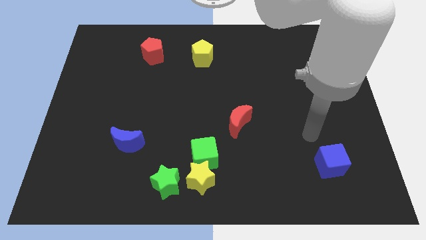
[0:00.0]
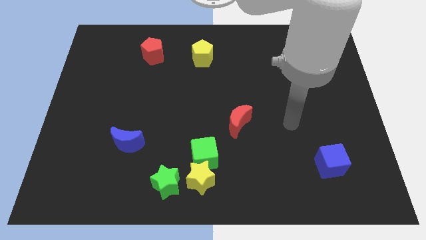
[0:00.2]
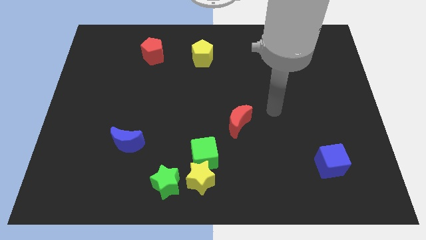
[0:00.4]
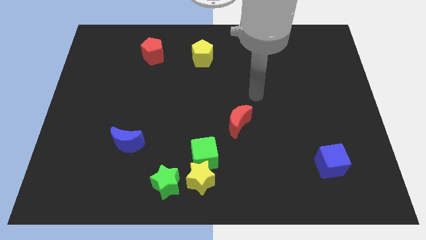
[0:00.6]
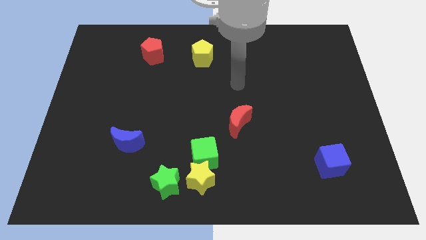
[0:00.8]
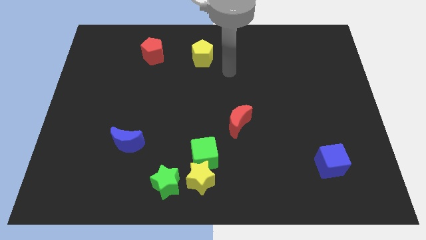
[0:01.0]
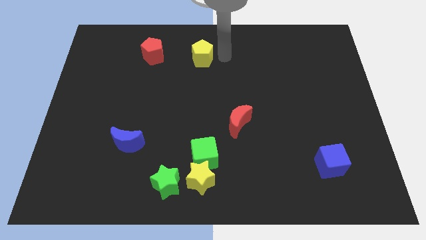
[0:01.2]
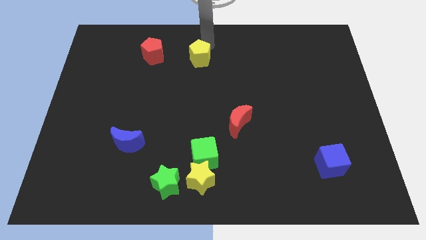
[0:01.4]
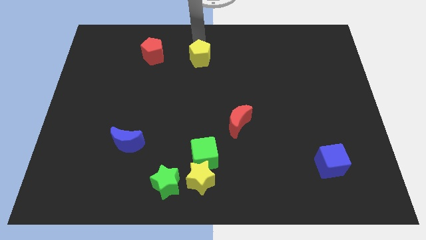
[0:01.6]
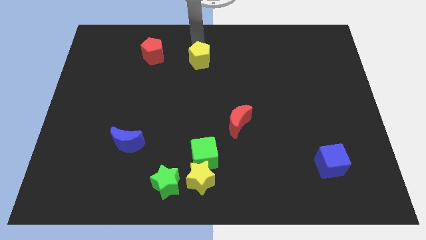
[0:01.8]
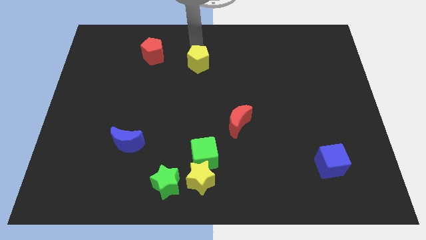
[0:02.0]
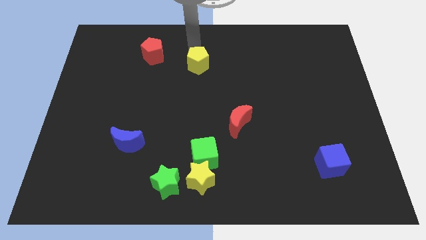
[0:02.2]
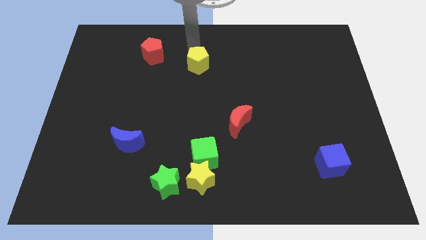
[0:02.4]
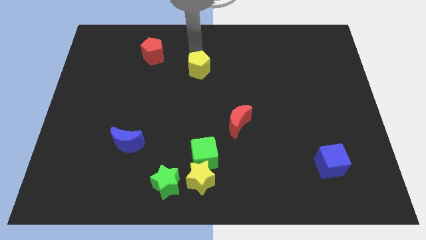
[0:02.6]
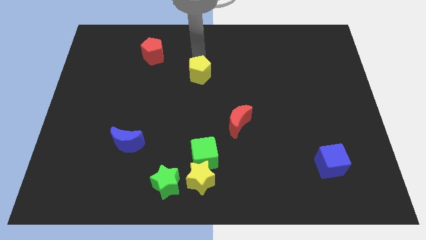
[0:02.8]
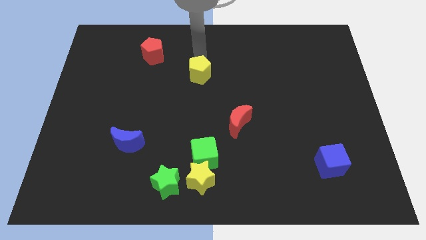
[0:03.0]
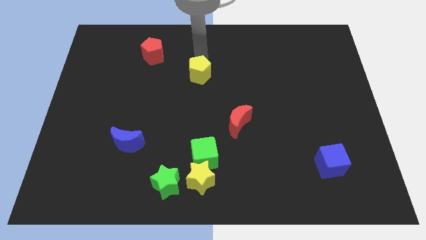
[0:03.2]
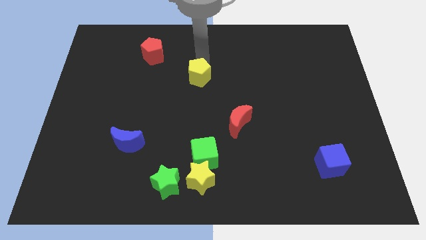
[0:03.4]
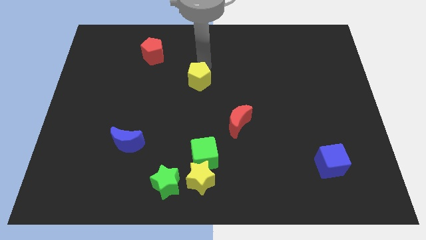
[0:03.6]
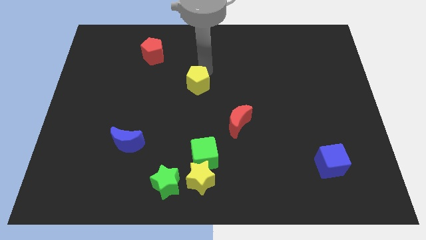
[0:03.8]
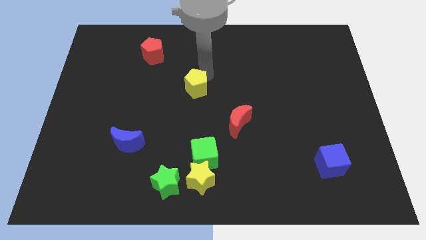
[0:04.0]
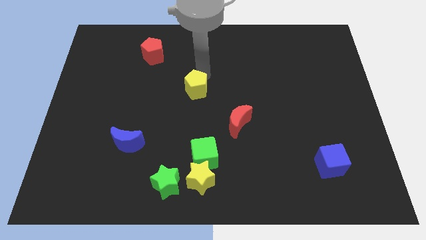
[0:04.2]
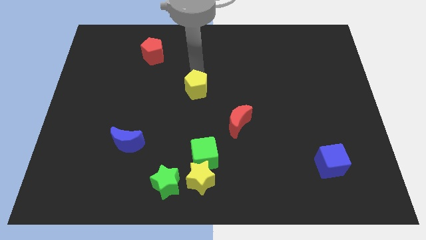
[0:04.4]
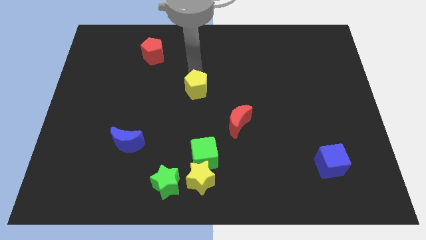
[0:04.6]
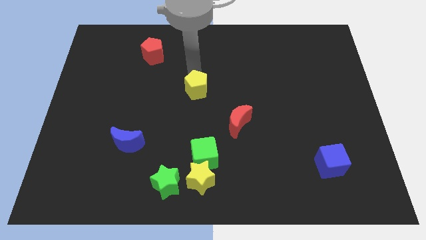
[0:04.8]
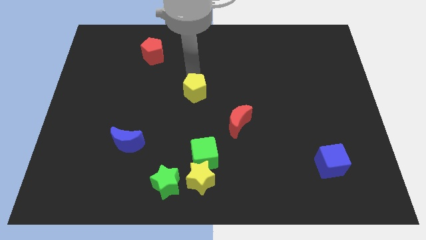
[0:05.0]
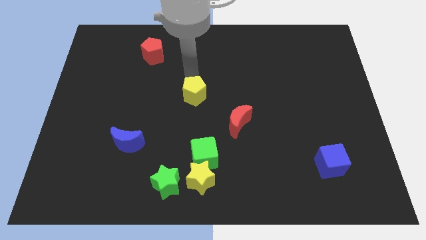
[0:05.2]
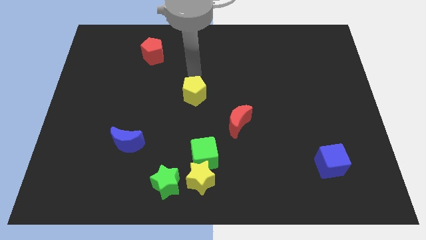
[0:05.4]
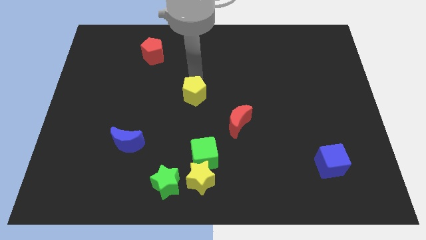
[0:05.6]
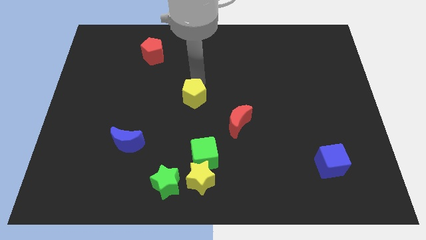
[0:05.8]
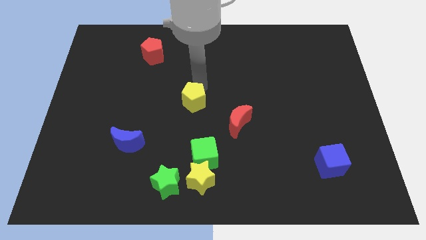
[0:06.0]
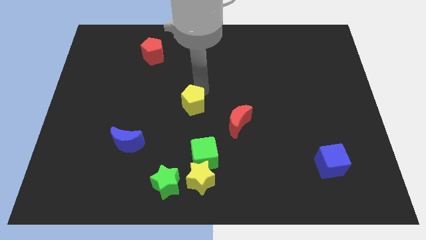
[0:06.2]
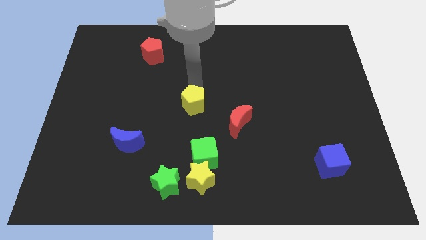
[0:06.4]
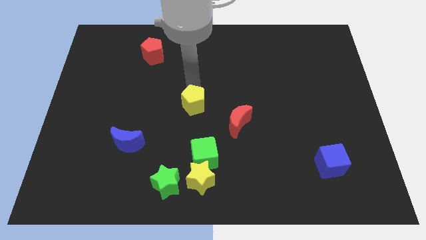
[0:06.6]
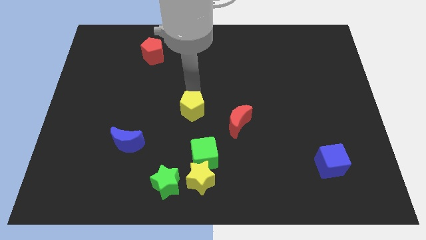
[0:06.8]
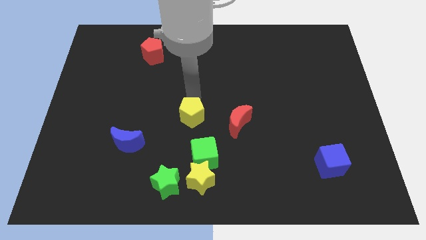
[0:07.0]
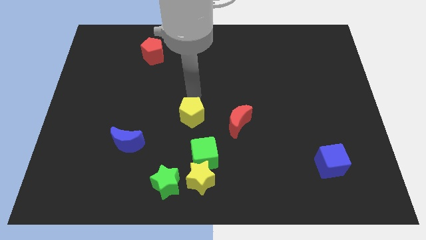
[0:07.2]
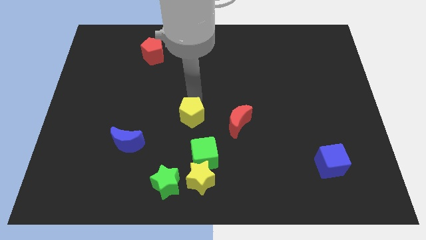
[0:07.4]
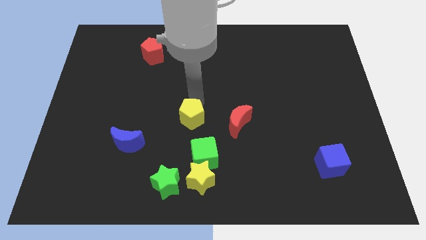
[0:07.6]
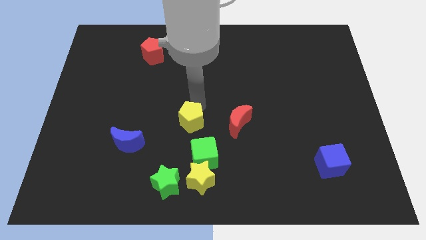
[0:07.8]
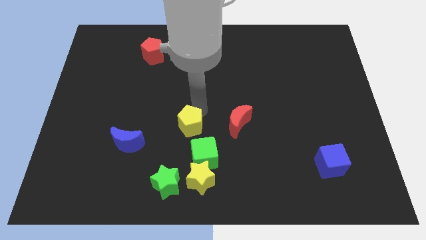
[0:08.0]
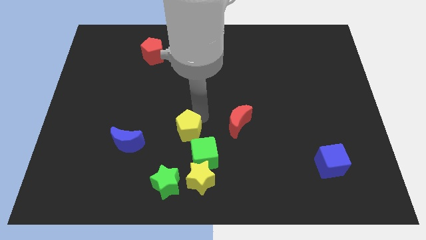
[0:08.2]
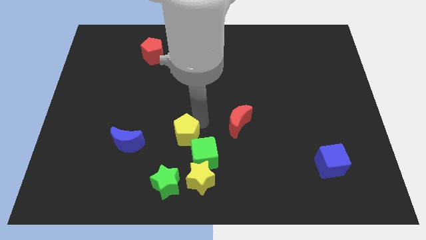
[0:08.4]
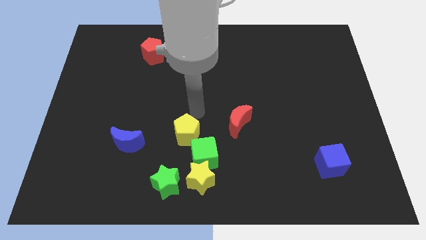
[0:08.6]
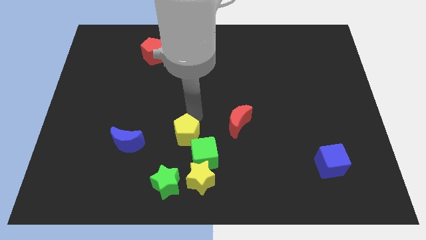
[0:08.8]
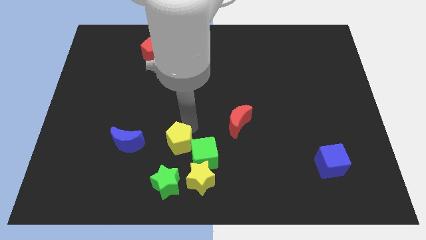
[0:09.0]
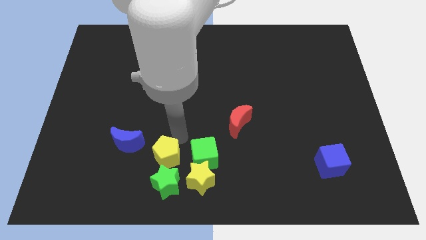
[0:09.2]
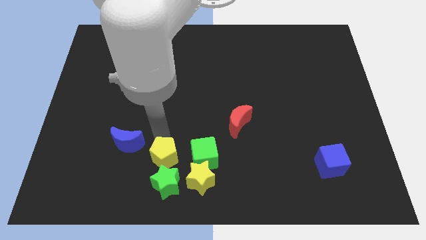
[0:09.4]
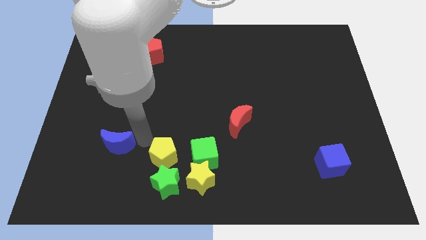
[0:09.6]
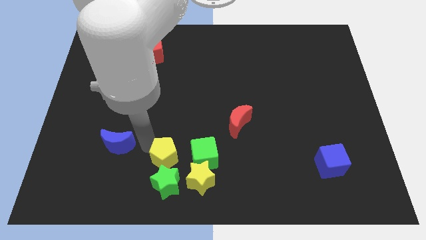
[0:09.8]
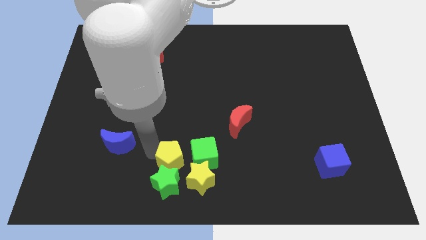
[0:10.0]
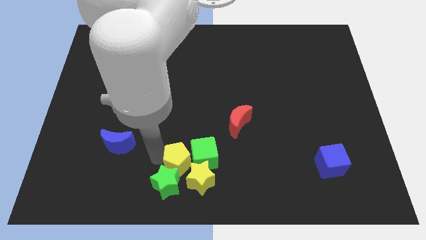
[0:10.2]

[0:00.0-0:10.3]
push the yellow pentagon towards the yellow star

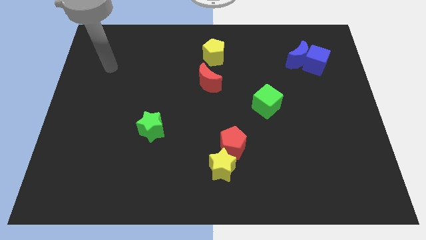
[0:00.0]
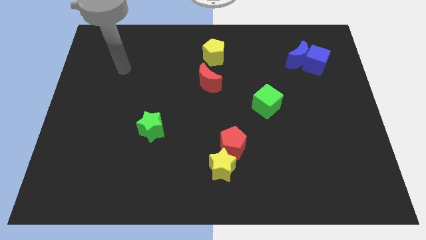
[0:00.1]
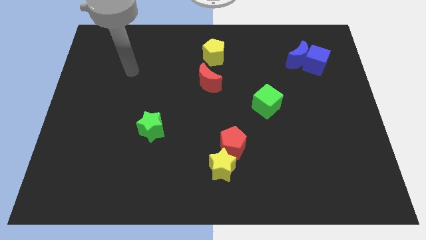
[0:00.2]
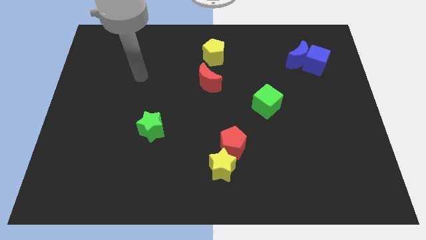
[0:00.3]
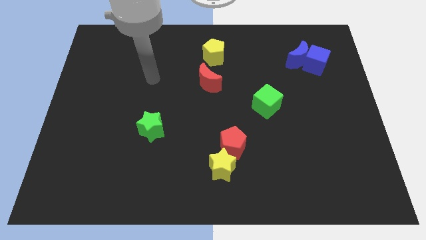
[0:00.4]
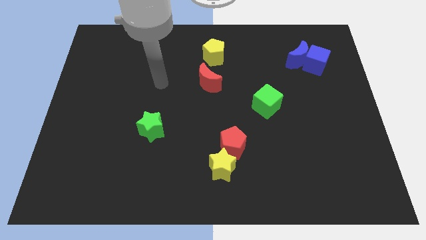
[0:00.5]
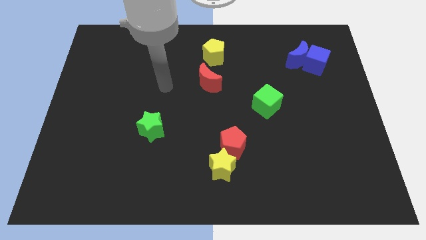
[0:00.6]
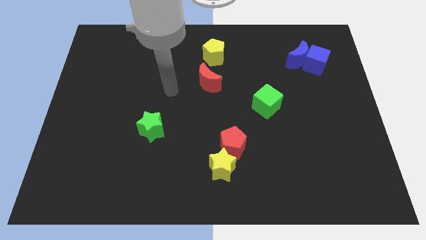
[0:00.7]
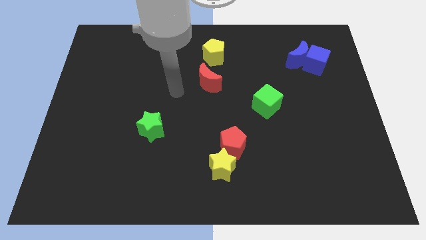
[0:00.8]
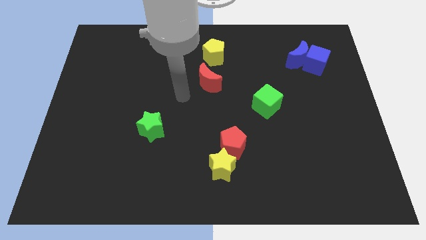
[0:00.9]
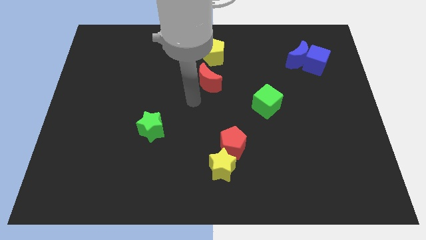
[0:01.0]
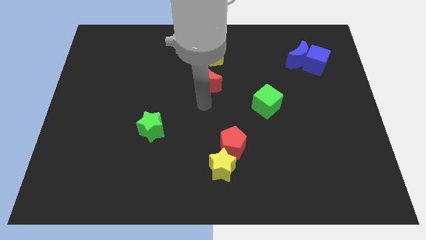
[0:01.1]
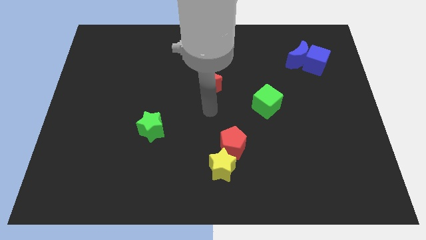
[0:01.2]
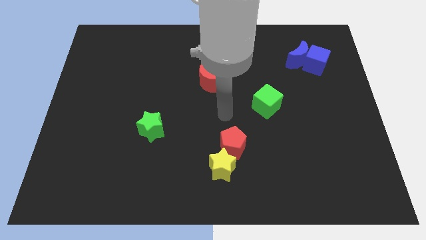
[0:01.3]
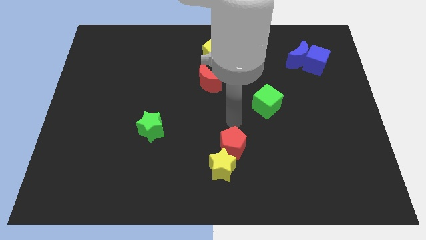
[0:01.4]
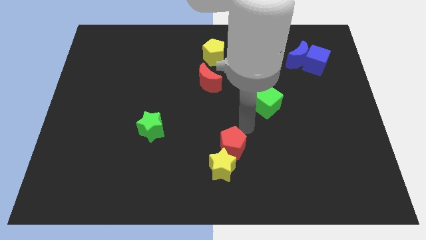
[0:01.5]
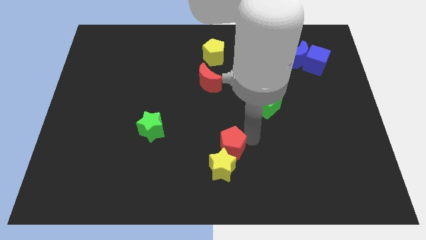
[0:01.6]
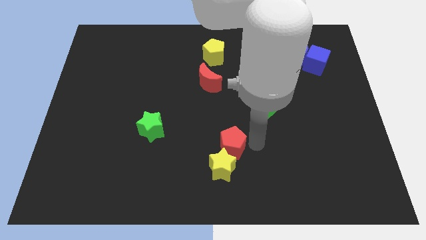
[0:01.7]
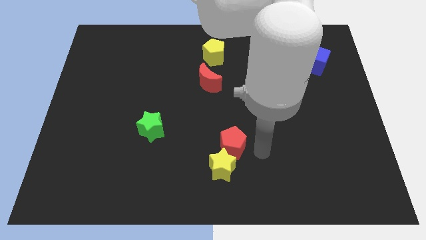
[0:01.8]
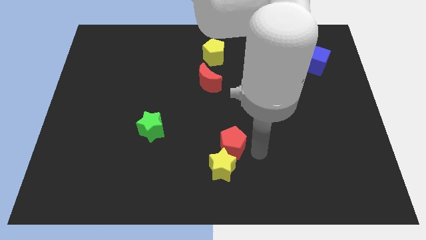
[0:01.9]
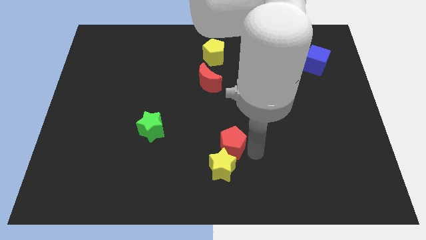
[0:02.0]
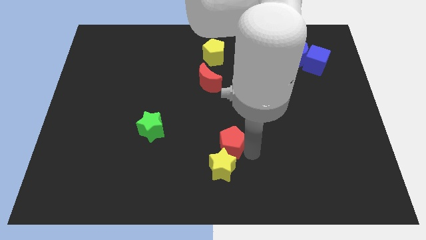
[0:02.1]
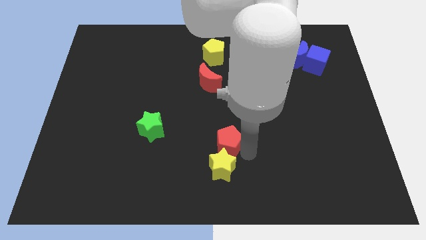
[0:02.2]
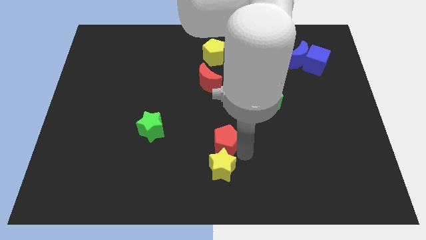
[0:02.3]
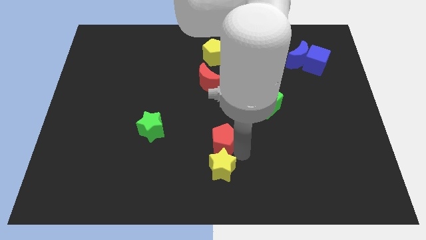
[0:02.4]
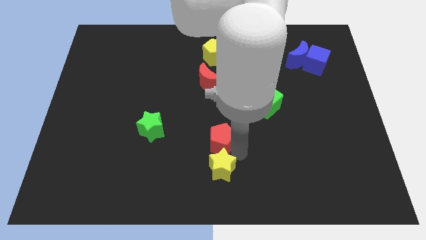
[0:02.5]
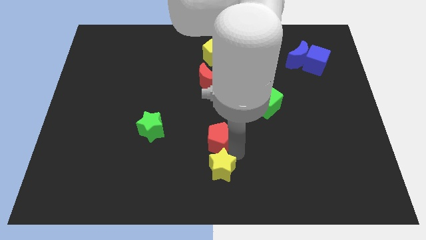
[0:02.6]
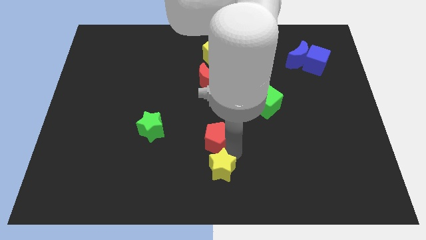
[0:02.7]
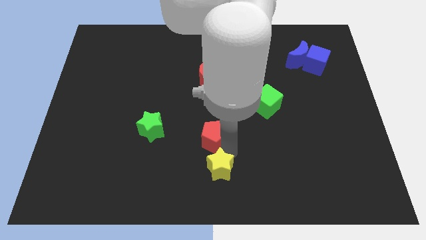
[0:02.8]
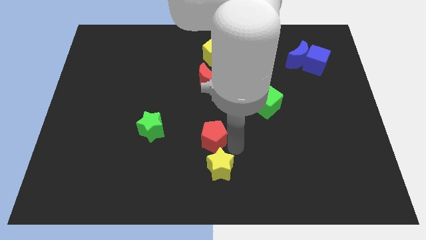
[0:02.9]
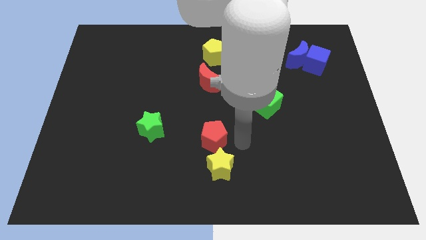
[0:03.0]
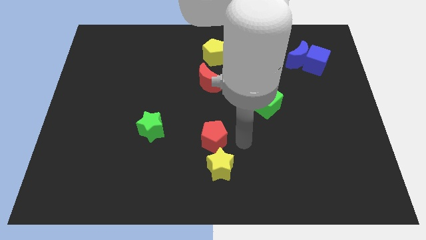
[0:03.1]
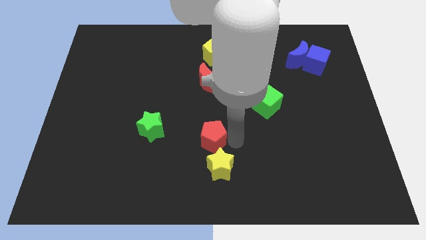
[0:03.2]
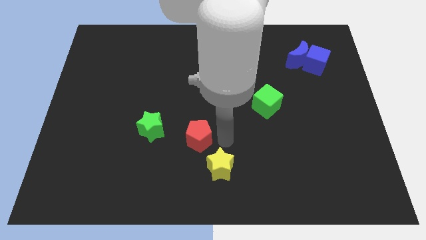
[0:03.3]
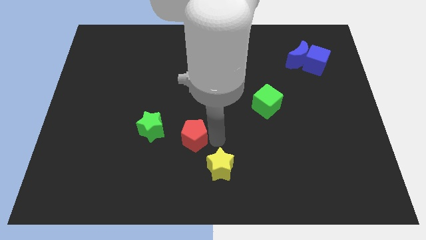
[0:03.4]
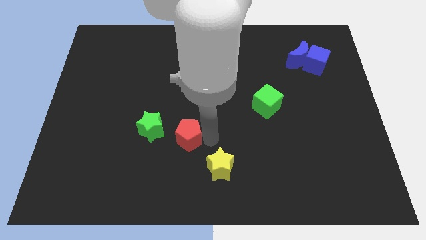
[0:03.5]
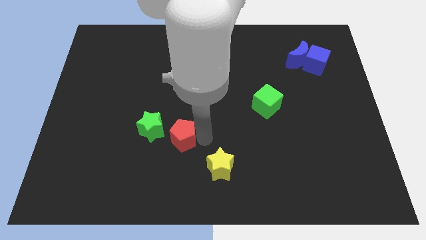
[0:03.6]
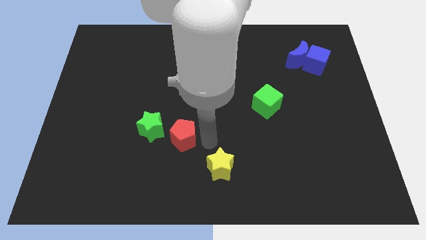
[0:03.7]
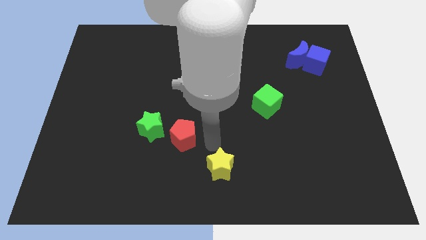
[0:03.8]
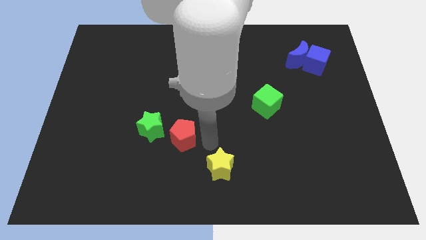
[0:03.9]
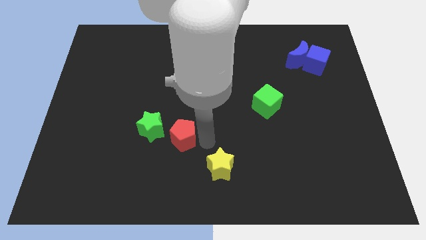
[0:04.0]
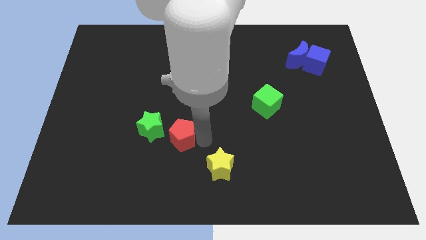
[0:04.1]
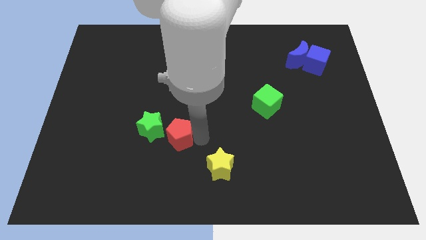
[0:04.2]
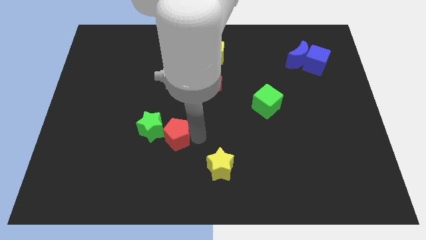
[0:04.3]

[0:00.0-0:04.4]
move the red pentagon next to the green star
